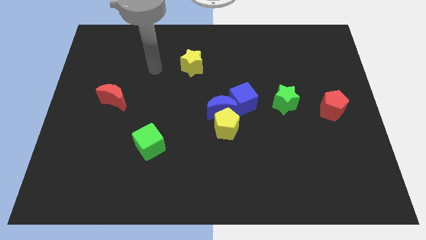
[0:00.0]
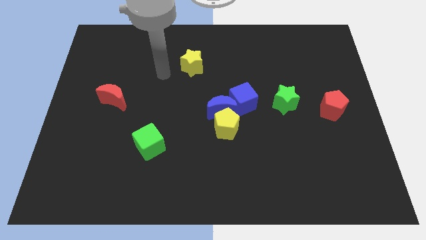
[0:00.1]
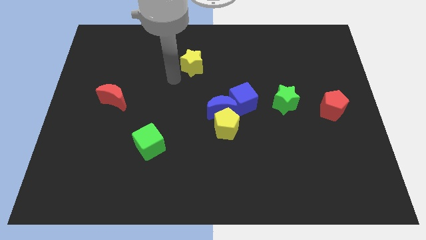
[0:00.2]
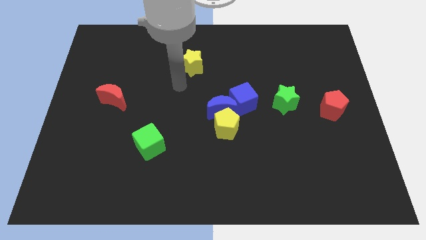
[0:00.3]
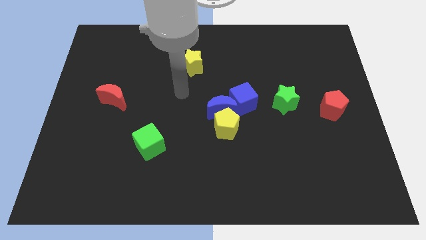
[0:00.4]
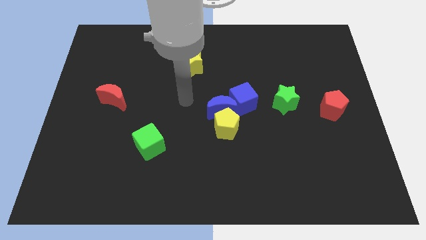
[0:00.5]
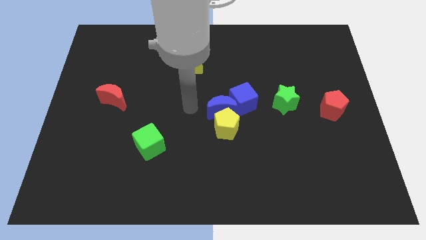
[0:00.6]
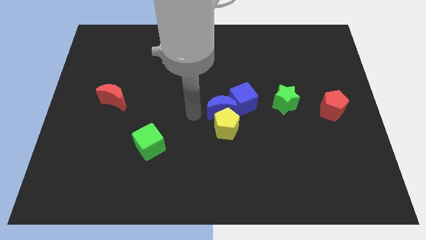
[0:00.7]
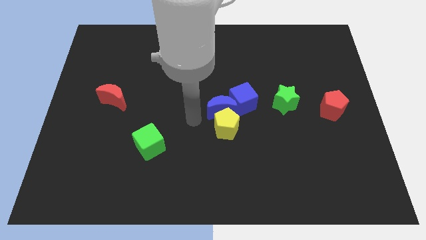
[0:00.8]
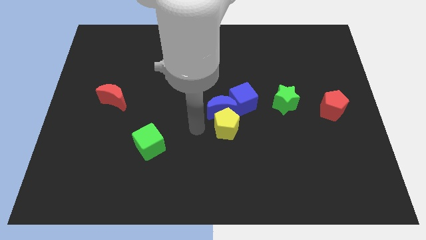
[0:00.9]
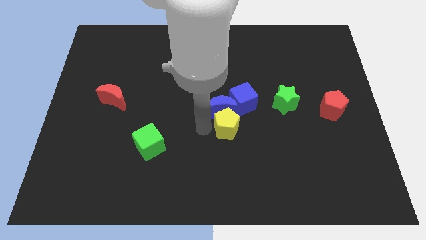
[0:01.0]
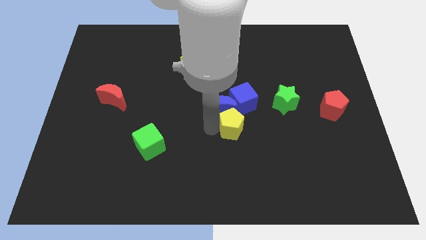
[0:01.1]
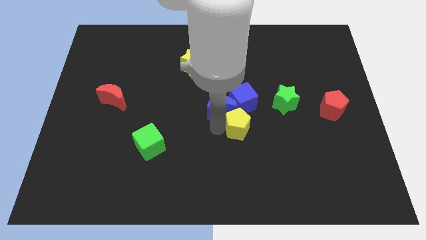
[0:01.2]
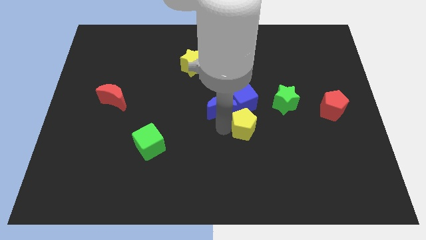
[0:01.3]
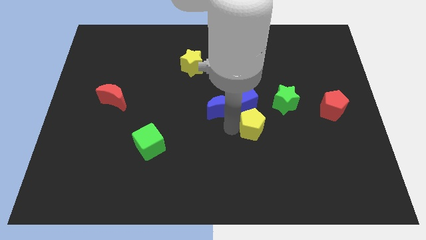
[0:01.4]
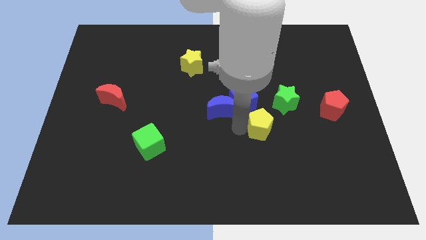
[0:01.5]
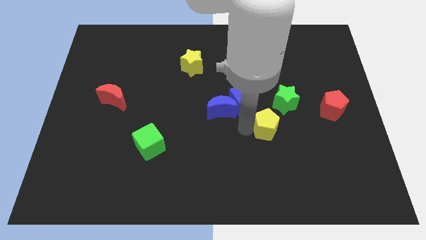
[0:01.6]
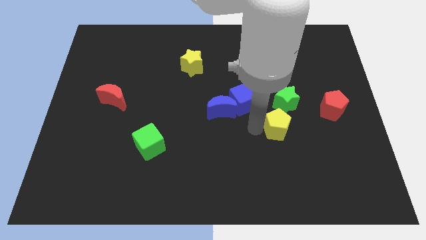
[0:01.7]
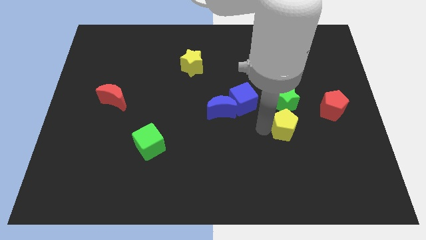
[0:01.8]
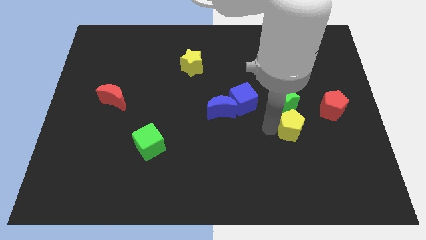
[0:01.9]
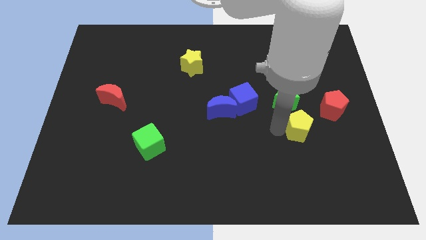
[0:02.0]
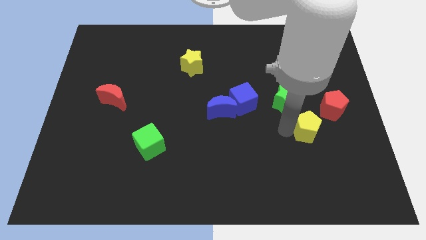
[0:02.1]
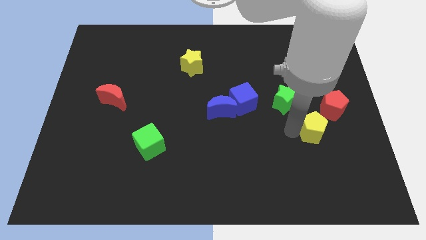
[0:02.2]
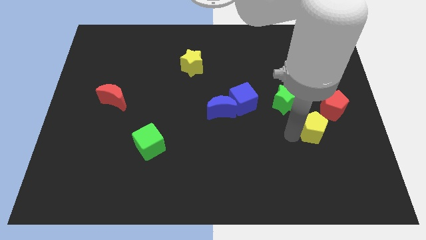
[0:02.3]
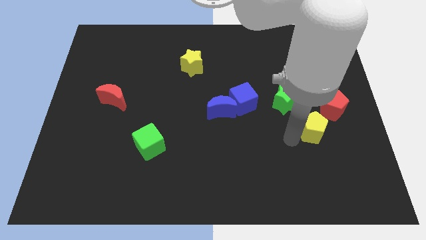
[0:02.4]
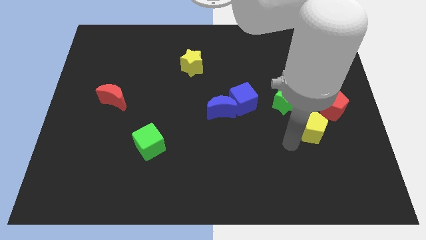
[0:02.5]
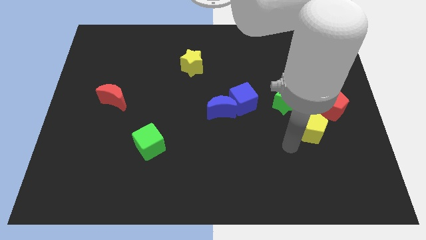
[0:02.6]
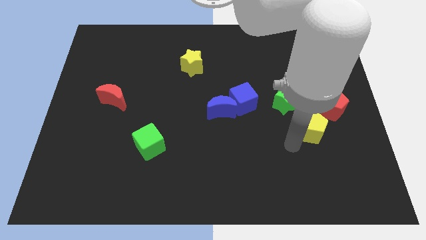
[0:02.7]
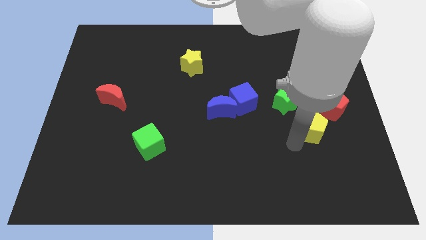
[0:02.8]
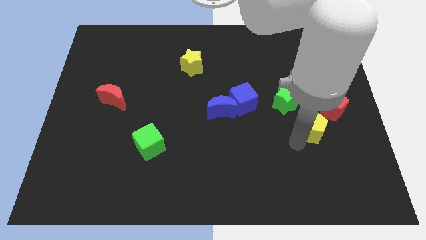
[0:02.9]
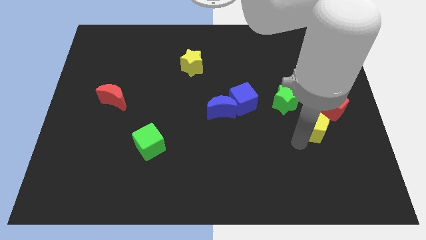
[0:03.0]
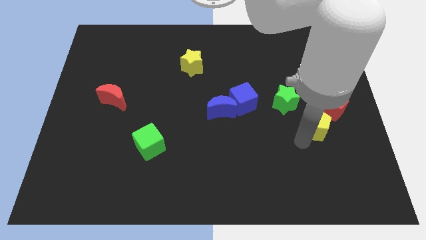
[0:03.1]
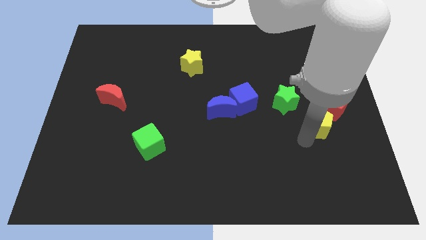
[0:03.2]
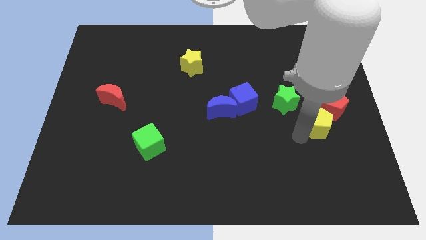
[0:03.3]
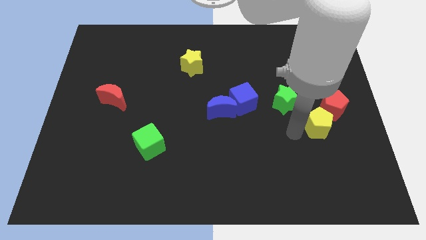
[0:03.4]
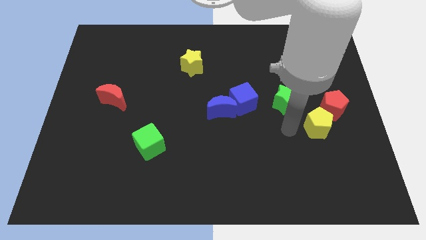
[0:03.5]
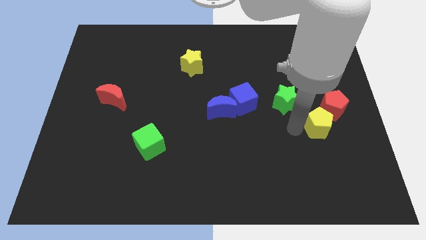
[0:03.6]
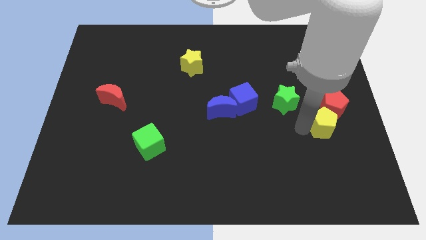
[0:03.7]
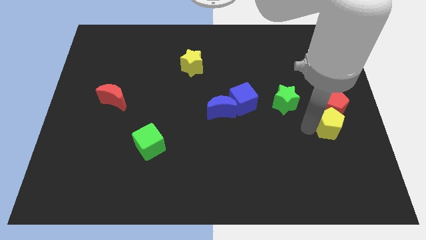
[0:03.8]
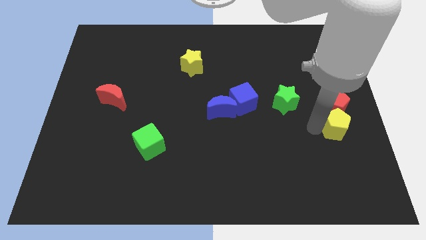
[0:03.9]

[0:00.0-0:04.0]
move the yellow pentagon to the right side

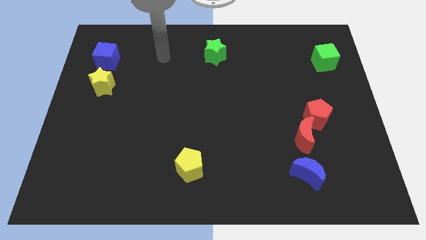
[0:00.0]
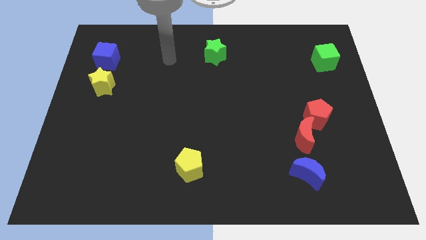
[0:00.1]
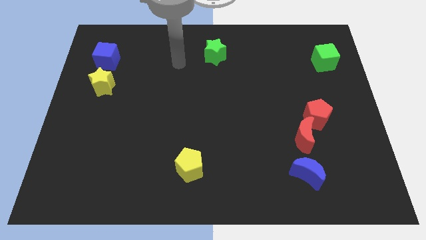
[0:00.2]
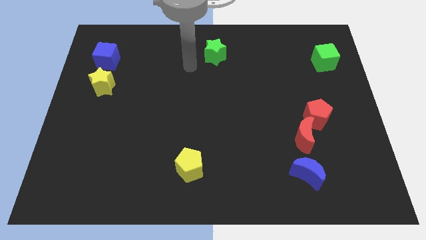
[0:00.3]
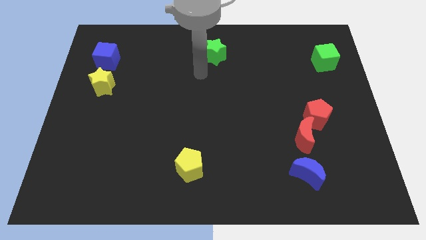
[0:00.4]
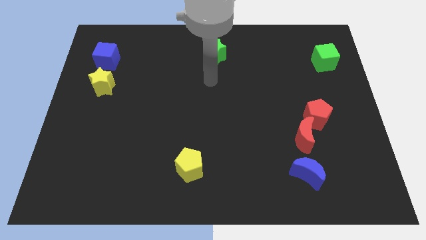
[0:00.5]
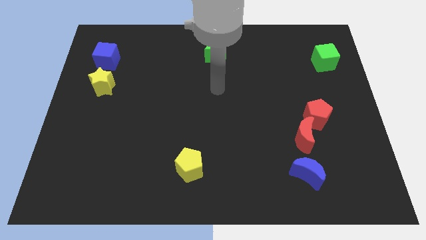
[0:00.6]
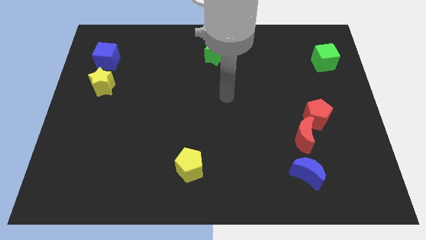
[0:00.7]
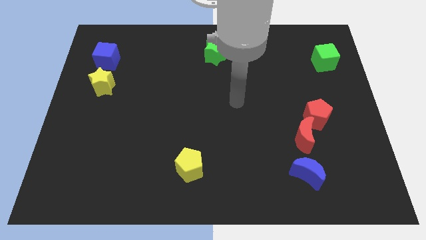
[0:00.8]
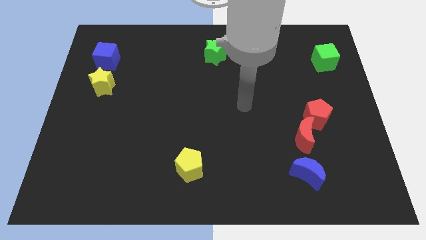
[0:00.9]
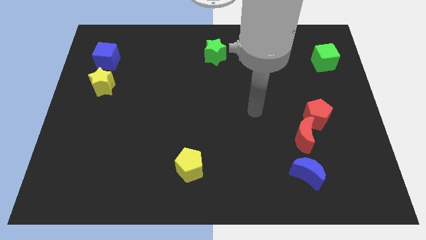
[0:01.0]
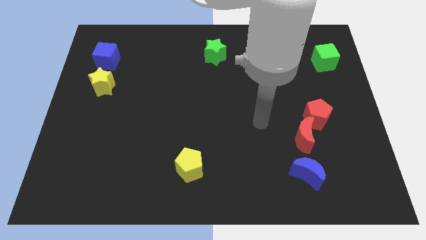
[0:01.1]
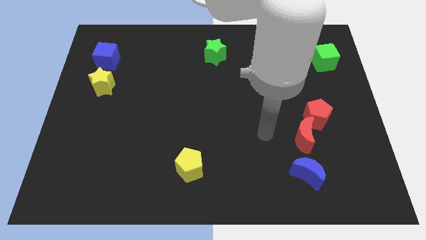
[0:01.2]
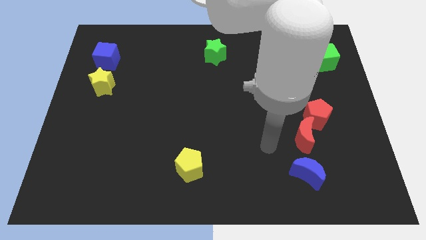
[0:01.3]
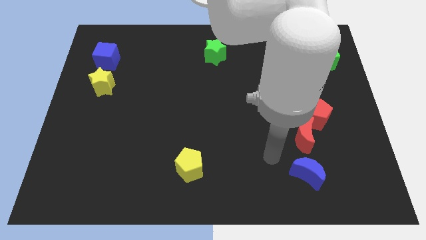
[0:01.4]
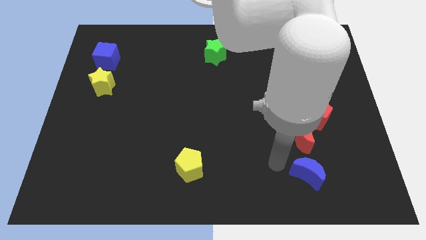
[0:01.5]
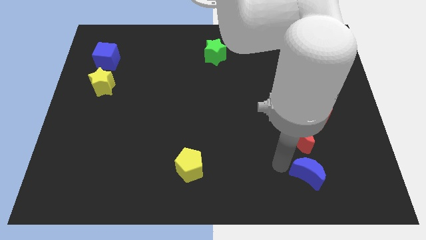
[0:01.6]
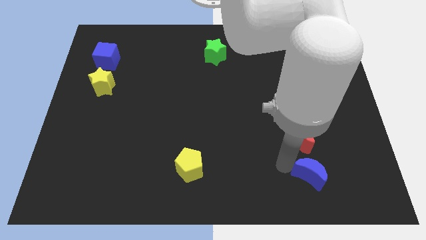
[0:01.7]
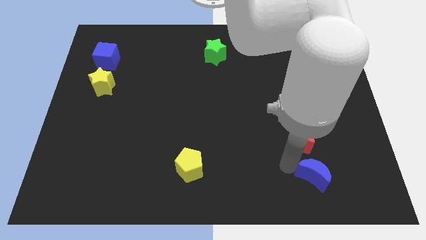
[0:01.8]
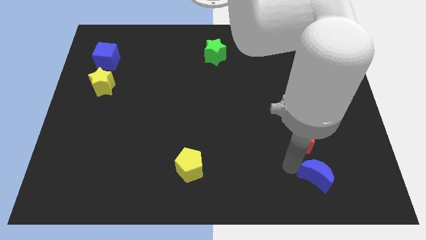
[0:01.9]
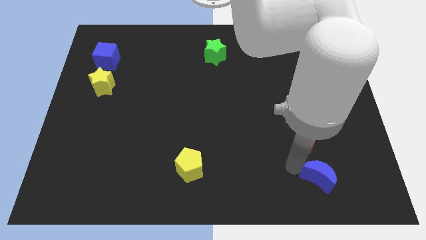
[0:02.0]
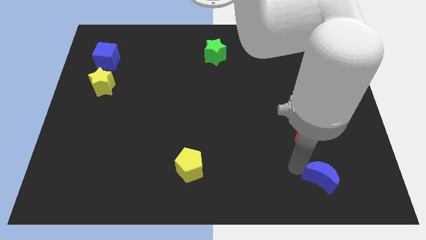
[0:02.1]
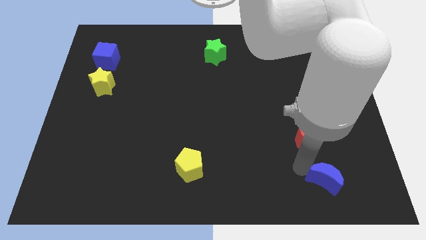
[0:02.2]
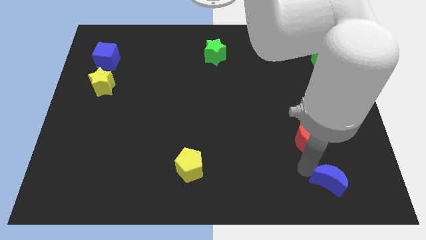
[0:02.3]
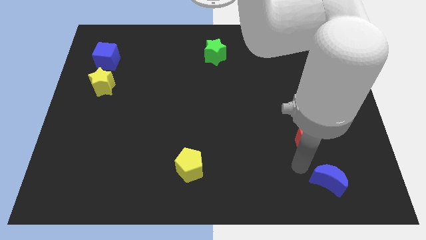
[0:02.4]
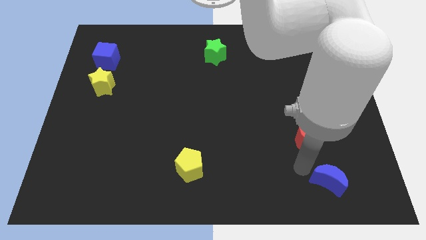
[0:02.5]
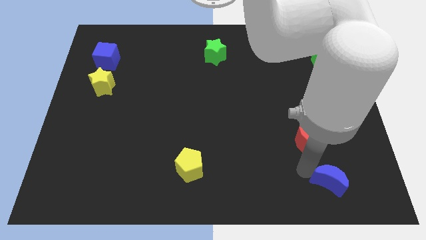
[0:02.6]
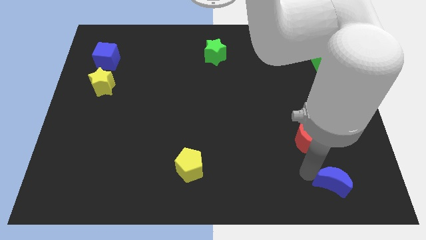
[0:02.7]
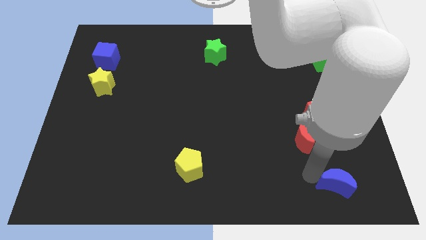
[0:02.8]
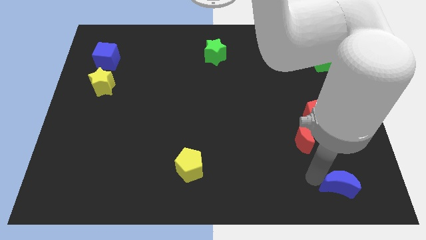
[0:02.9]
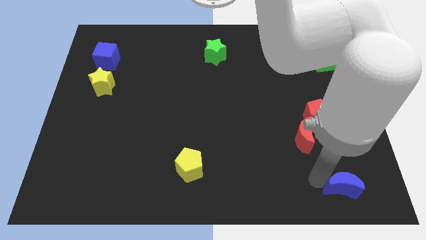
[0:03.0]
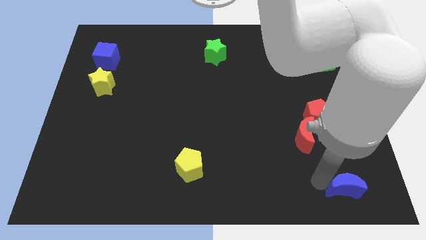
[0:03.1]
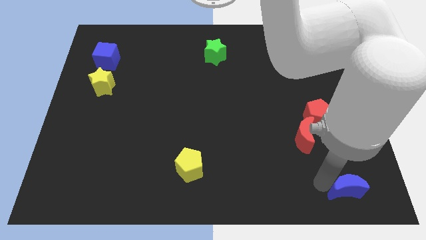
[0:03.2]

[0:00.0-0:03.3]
slide the blue moon to the bottom right

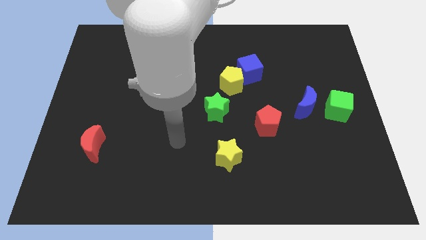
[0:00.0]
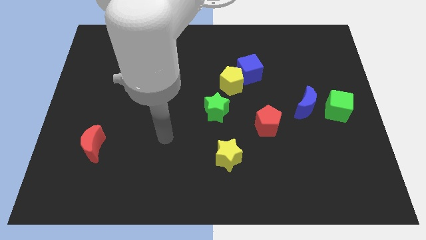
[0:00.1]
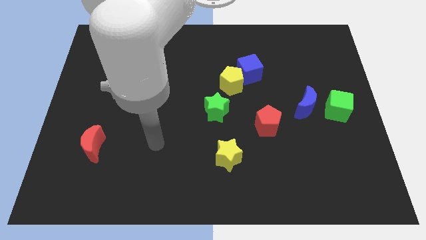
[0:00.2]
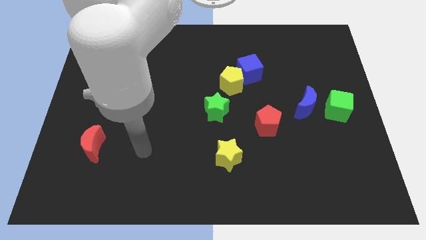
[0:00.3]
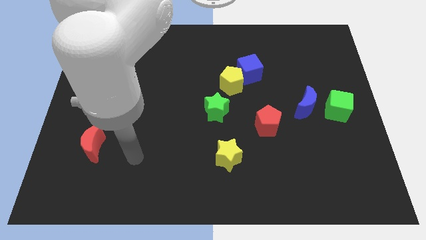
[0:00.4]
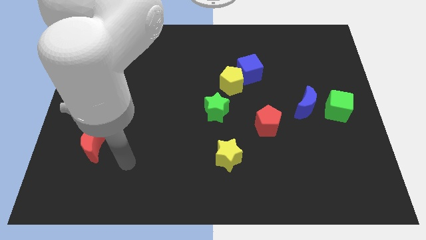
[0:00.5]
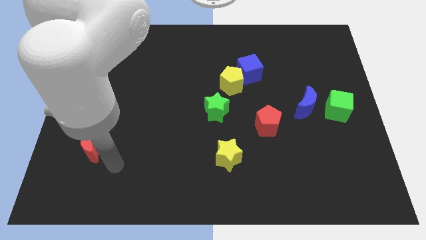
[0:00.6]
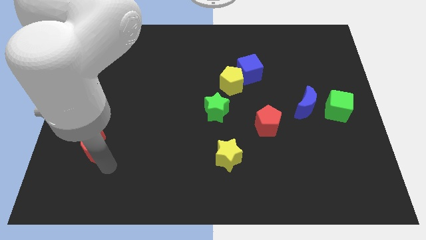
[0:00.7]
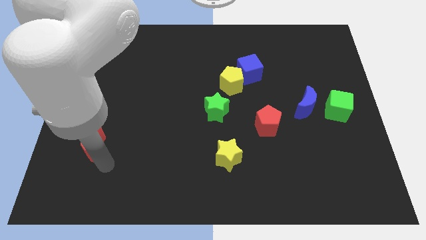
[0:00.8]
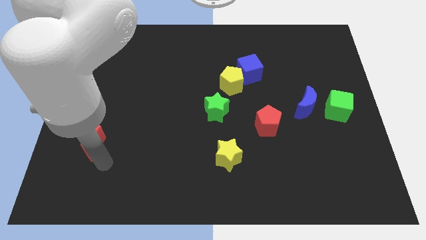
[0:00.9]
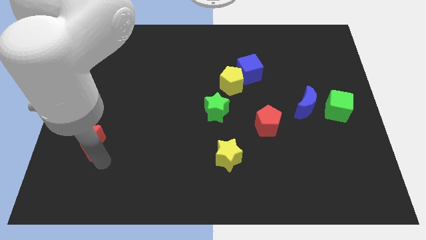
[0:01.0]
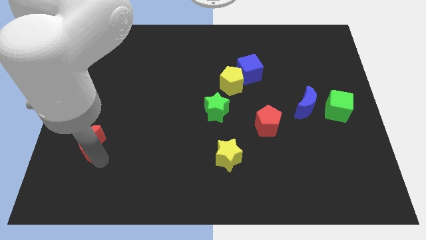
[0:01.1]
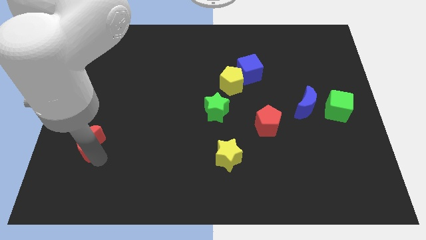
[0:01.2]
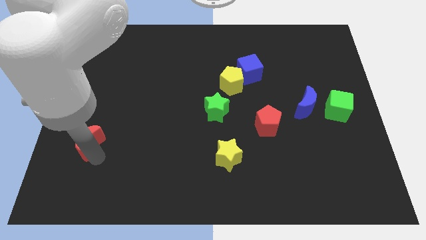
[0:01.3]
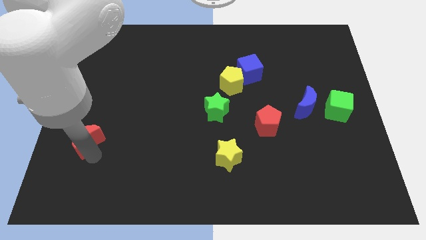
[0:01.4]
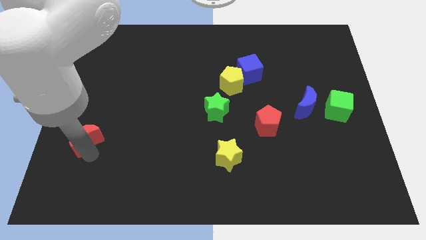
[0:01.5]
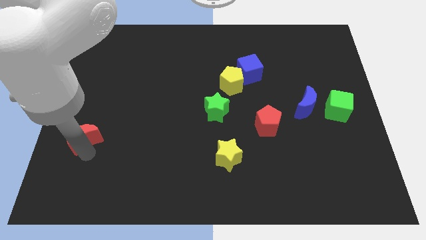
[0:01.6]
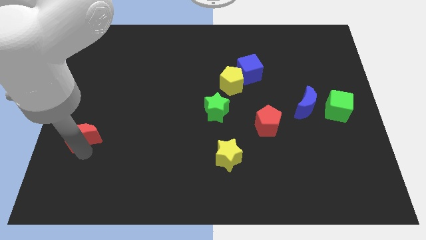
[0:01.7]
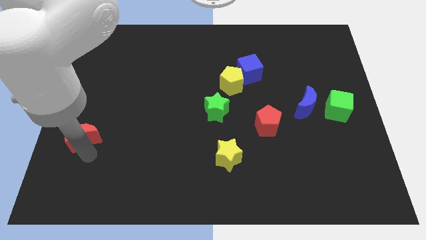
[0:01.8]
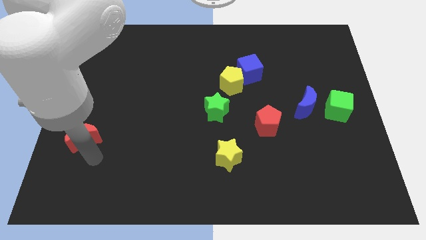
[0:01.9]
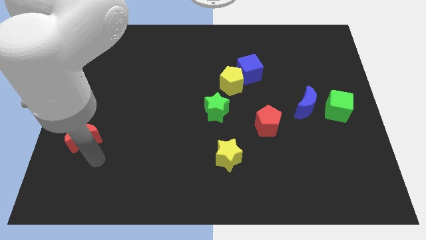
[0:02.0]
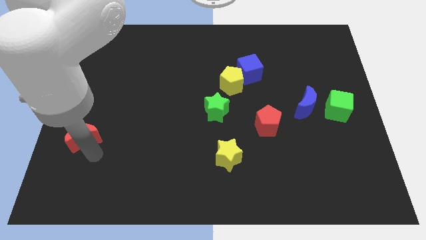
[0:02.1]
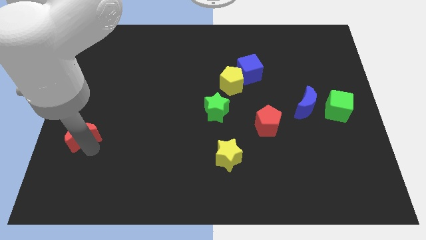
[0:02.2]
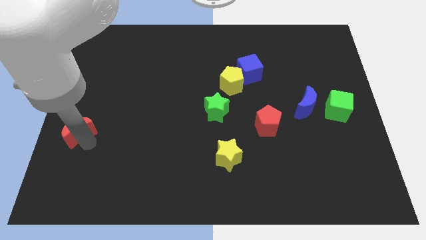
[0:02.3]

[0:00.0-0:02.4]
move the red moon to the center left
